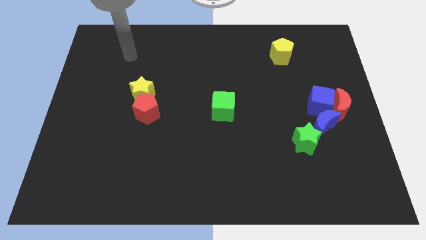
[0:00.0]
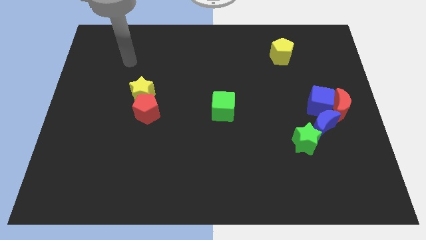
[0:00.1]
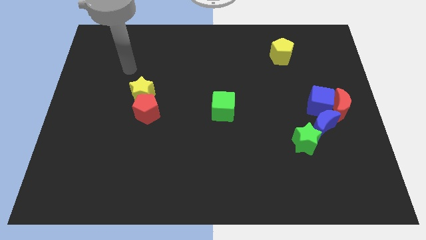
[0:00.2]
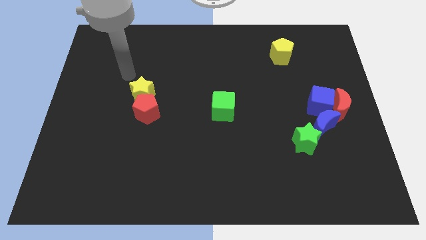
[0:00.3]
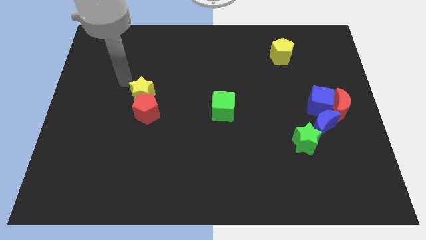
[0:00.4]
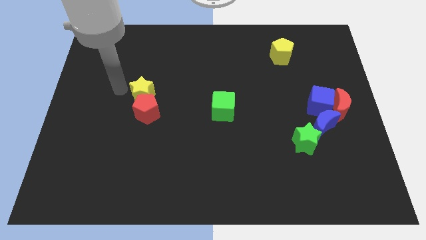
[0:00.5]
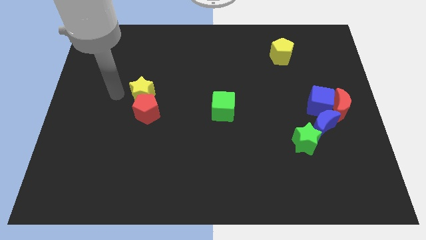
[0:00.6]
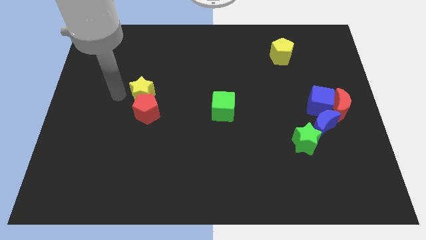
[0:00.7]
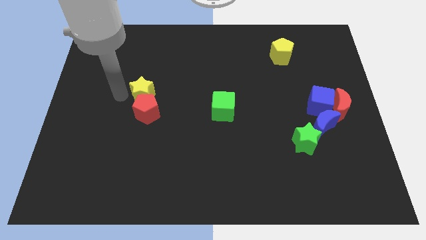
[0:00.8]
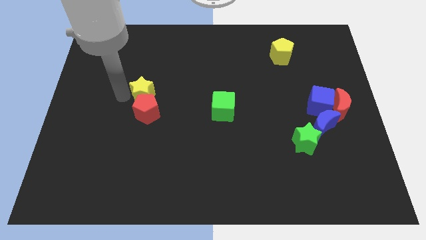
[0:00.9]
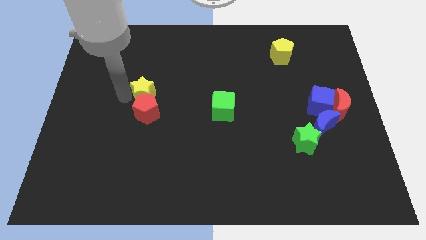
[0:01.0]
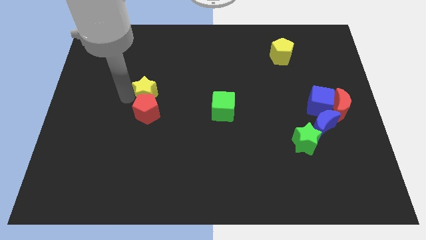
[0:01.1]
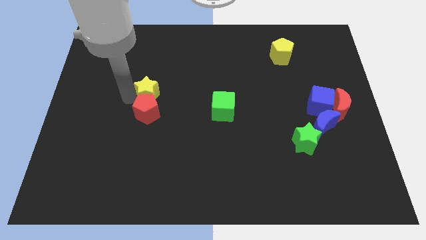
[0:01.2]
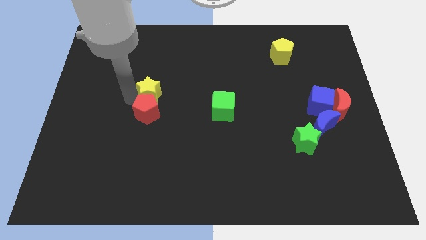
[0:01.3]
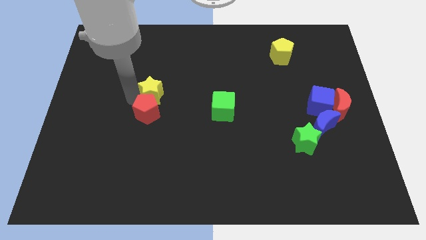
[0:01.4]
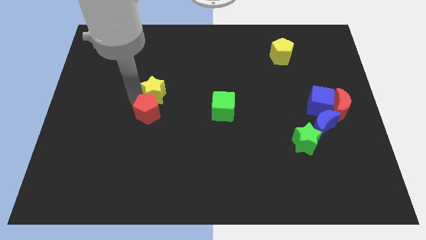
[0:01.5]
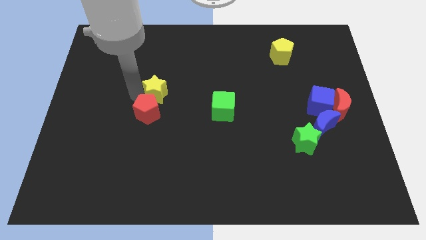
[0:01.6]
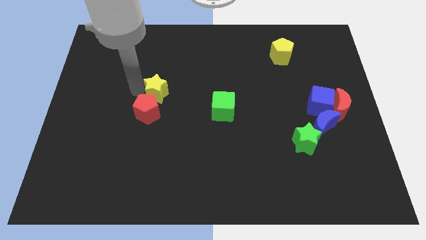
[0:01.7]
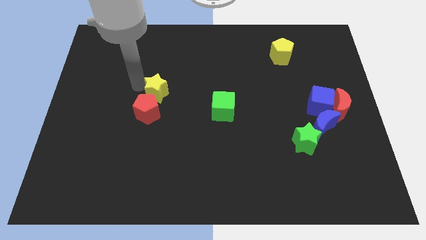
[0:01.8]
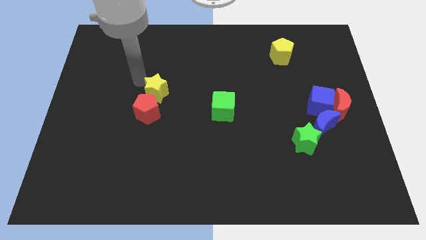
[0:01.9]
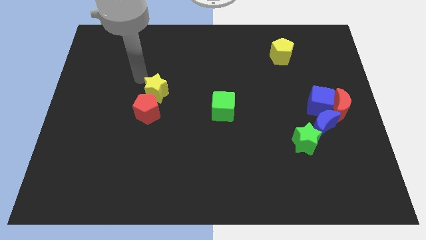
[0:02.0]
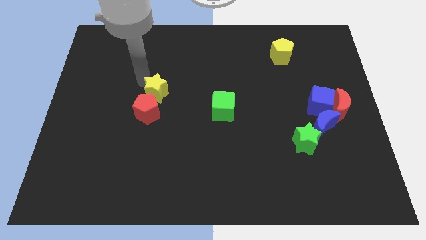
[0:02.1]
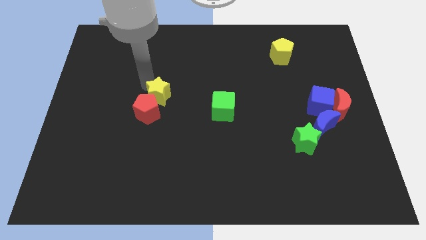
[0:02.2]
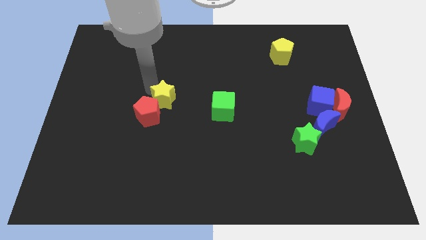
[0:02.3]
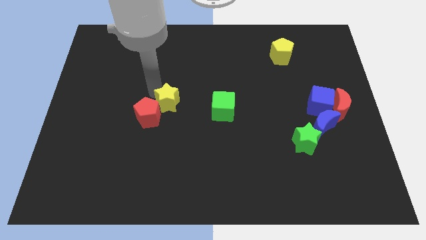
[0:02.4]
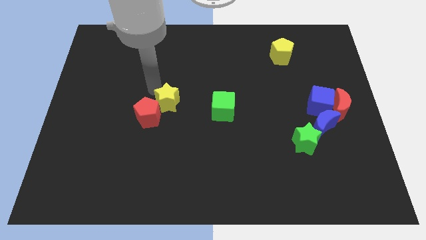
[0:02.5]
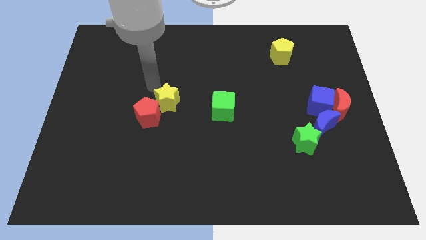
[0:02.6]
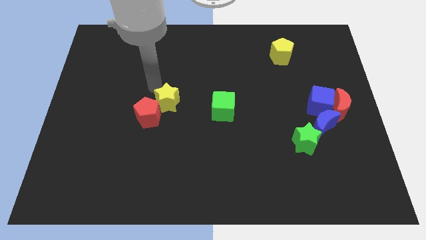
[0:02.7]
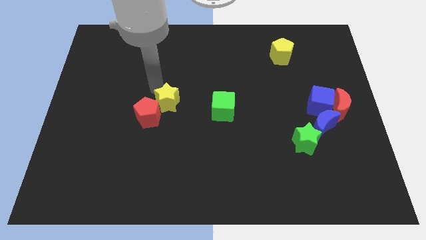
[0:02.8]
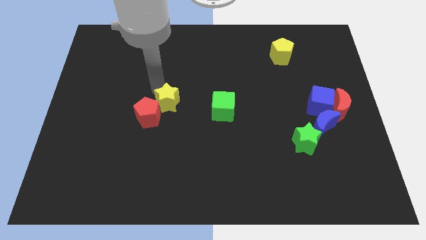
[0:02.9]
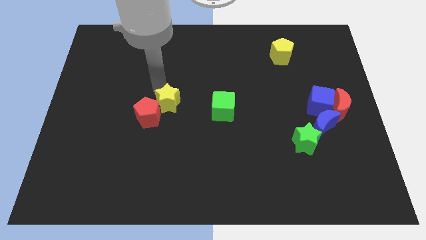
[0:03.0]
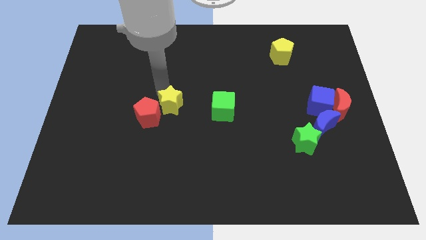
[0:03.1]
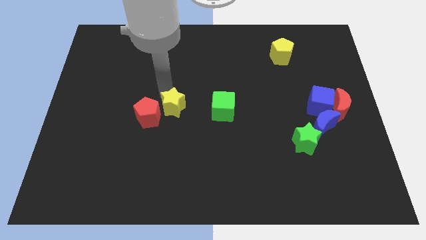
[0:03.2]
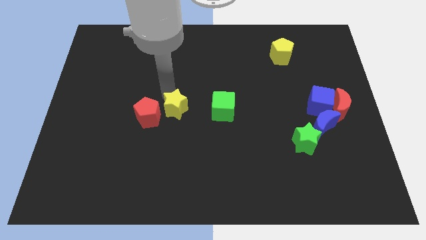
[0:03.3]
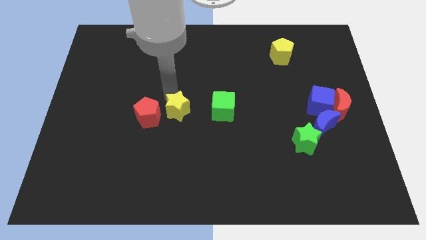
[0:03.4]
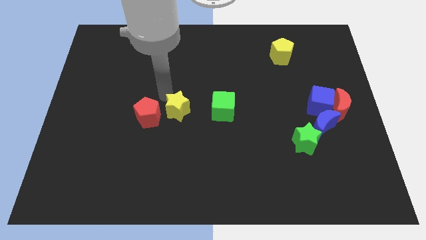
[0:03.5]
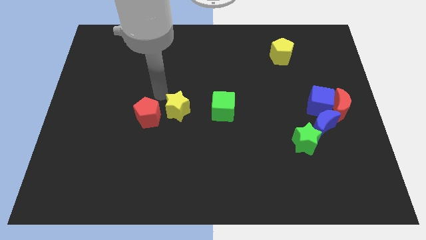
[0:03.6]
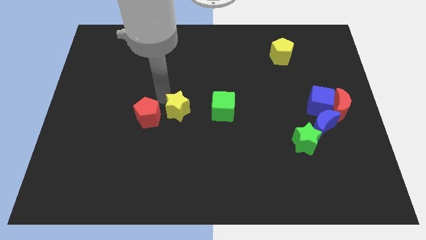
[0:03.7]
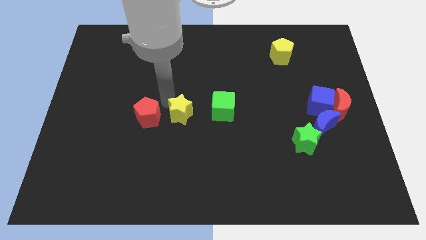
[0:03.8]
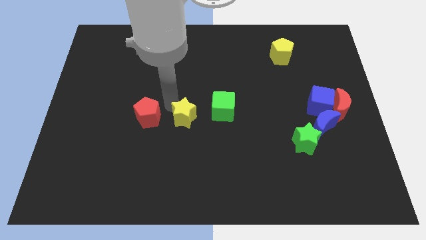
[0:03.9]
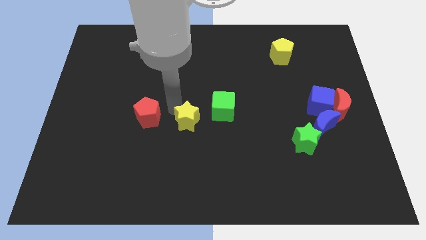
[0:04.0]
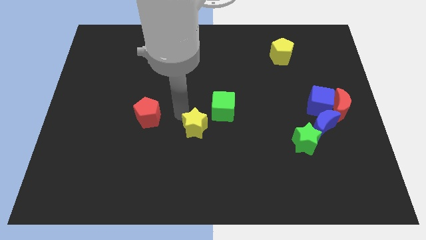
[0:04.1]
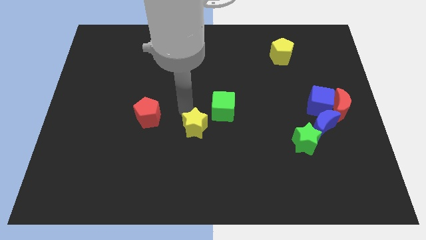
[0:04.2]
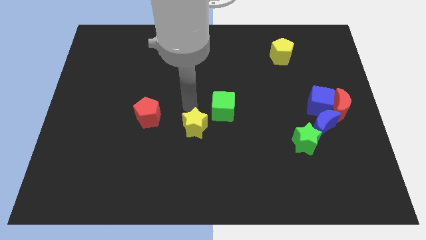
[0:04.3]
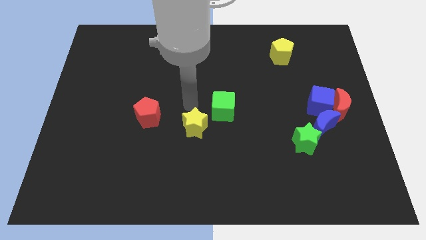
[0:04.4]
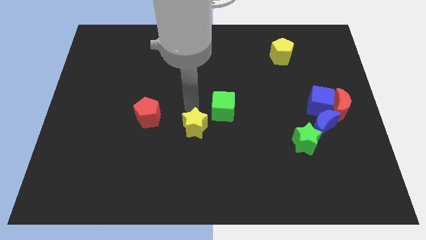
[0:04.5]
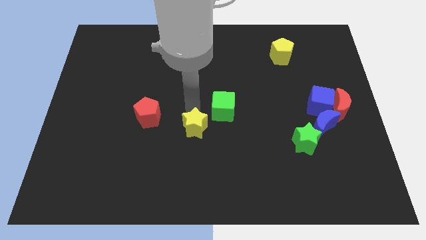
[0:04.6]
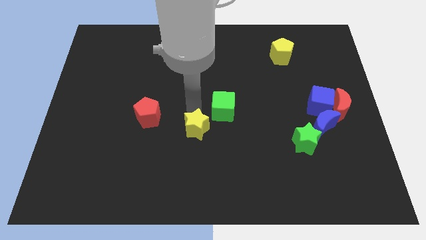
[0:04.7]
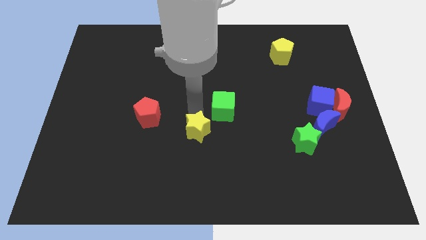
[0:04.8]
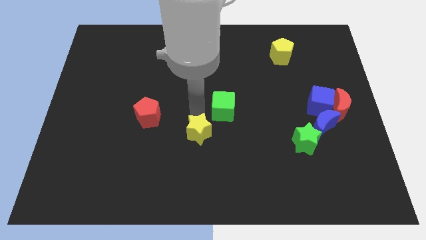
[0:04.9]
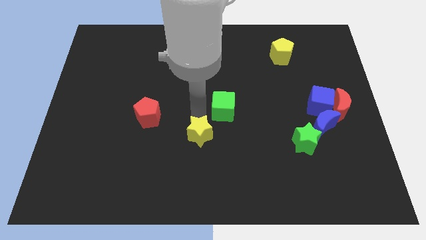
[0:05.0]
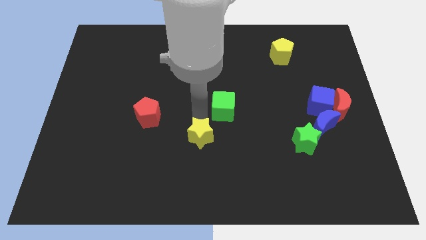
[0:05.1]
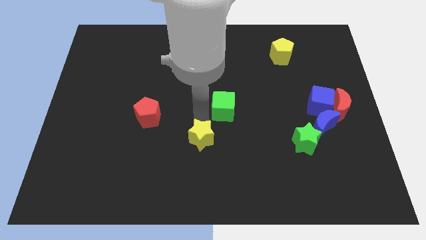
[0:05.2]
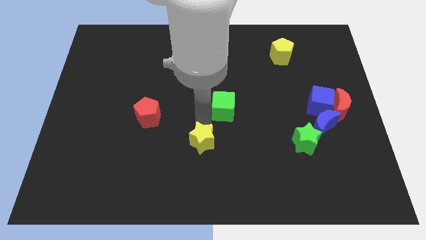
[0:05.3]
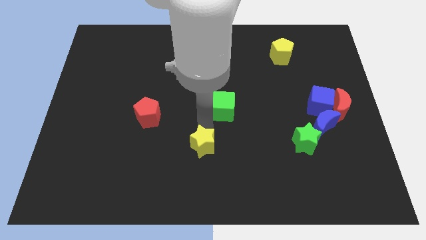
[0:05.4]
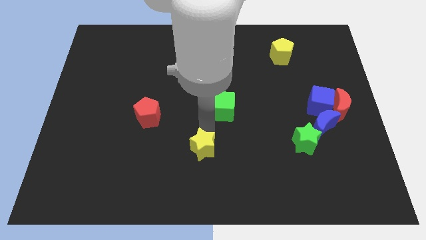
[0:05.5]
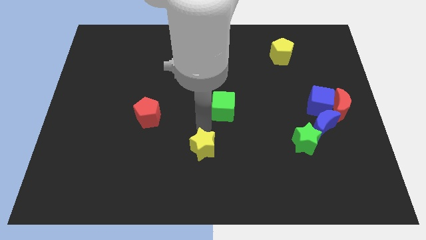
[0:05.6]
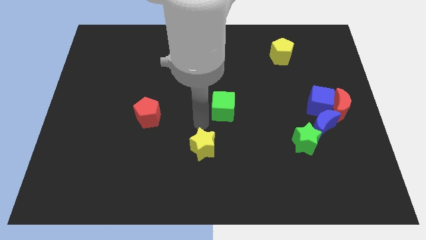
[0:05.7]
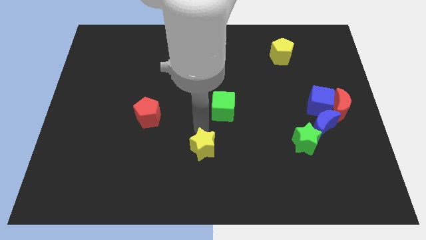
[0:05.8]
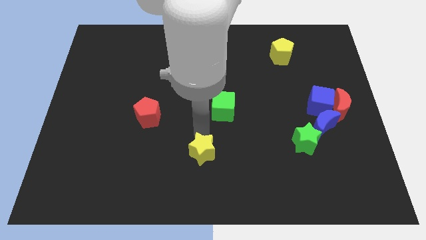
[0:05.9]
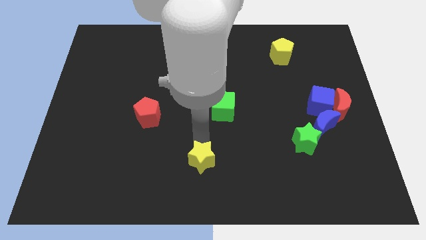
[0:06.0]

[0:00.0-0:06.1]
push the yellow star to the bottom
